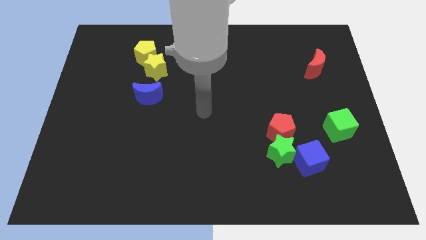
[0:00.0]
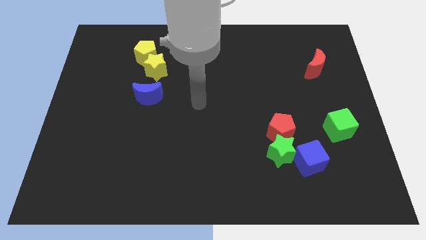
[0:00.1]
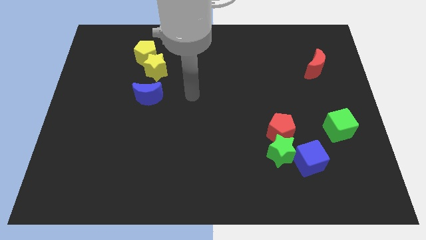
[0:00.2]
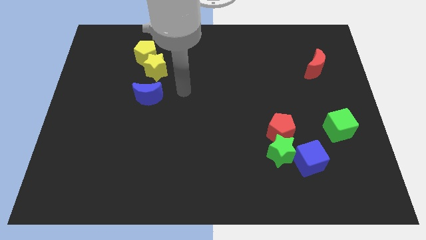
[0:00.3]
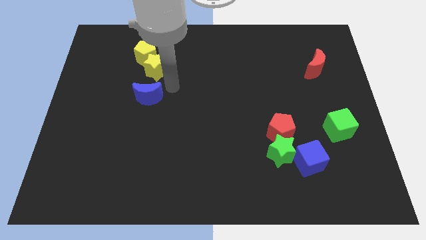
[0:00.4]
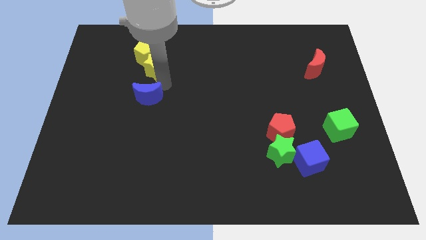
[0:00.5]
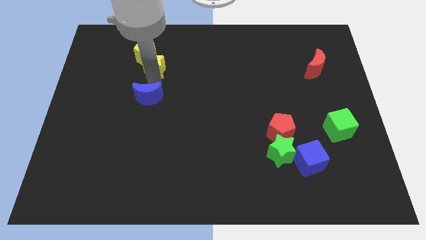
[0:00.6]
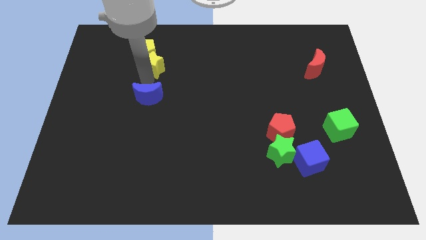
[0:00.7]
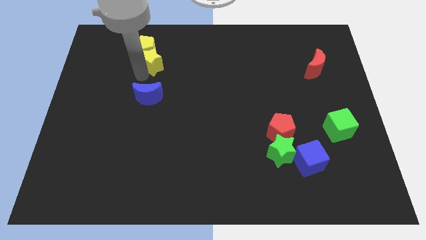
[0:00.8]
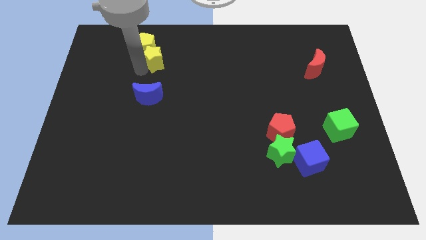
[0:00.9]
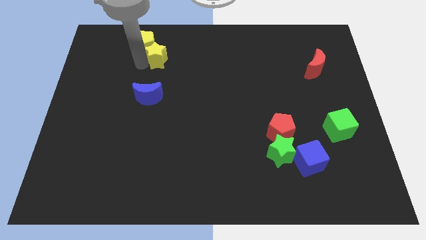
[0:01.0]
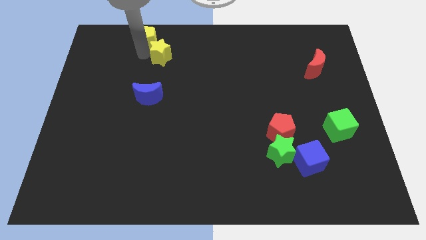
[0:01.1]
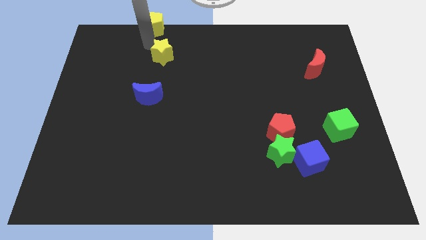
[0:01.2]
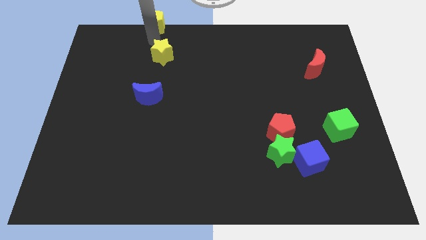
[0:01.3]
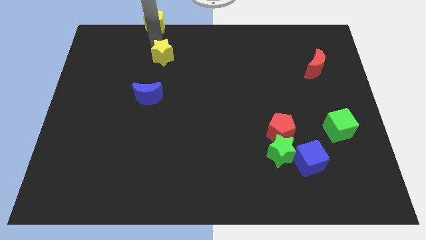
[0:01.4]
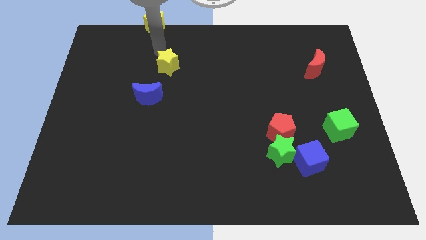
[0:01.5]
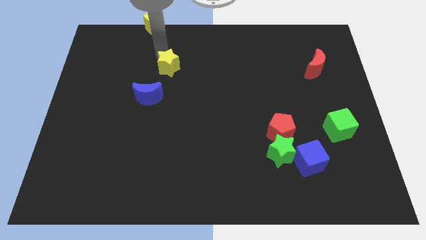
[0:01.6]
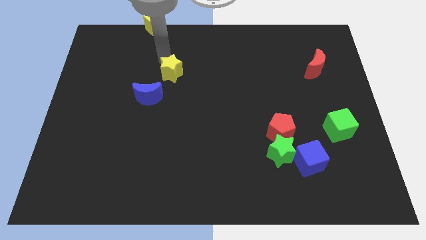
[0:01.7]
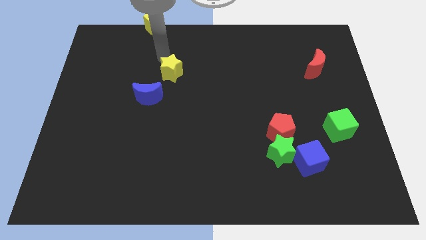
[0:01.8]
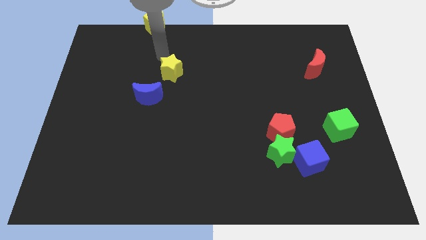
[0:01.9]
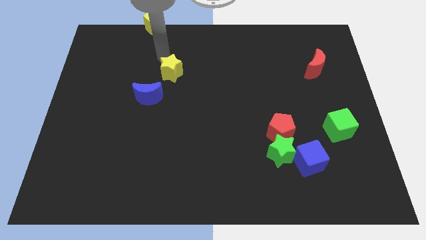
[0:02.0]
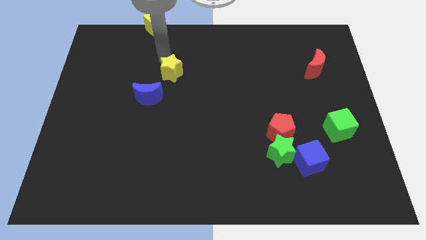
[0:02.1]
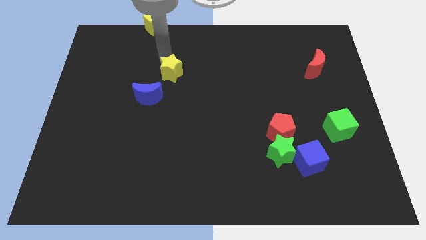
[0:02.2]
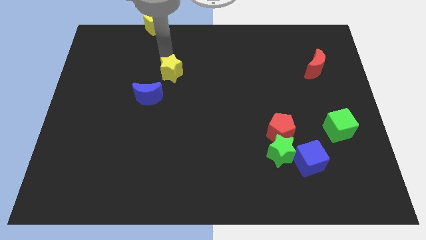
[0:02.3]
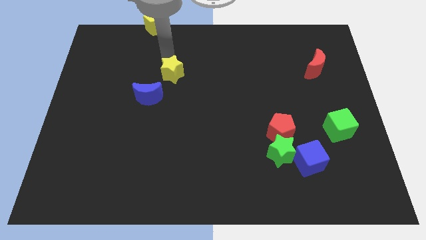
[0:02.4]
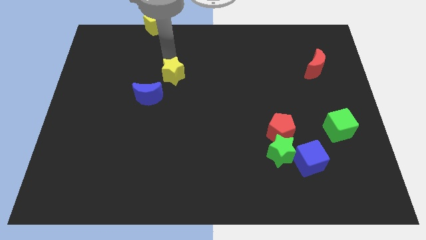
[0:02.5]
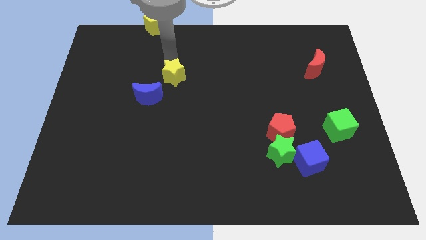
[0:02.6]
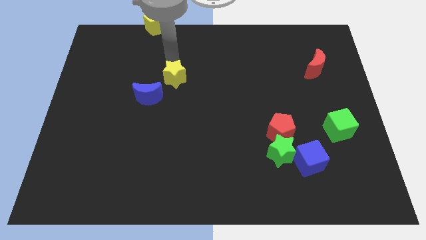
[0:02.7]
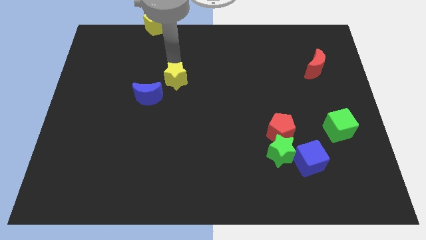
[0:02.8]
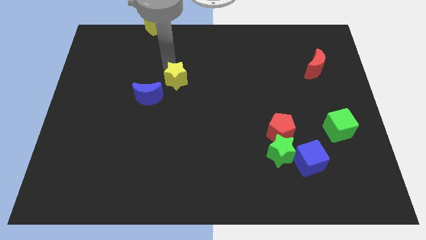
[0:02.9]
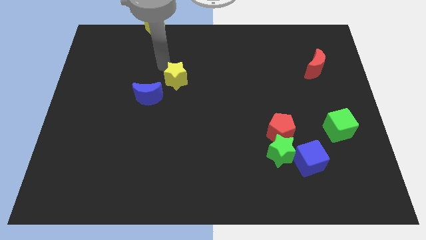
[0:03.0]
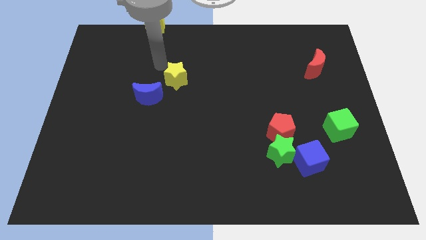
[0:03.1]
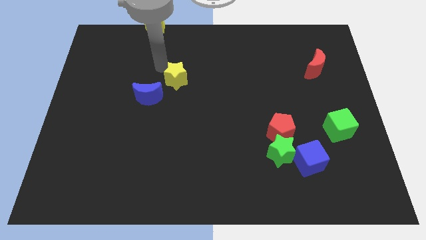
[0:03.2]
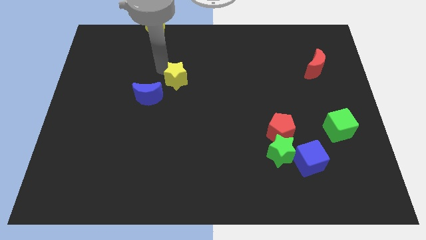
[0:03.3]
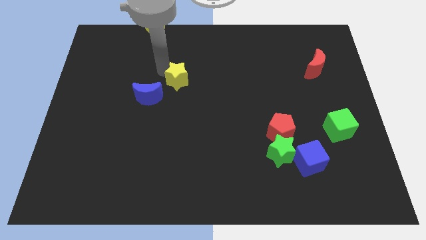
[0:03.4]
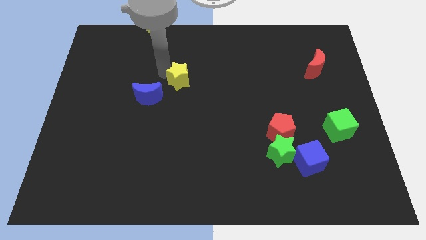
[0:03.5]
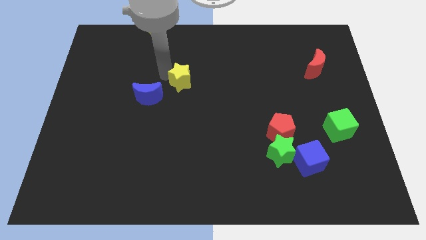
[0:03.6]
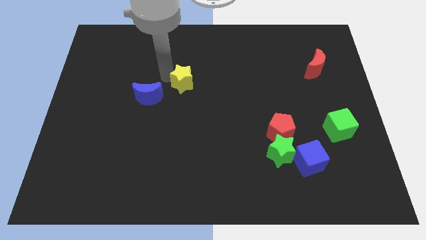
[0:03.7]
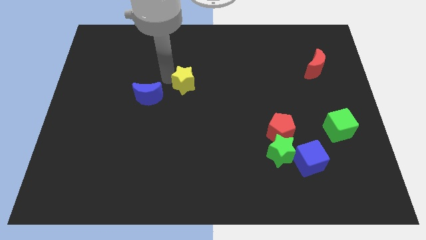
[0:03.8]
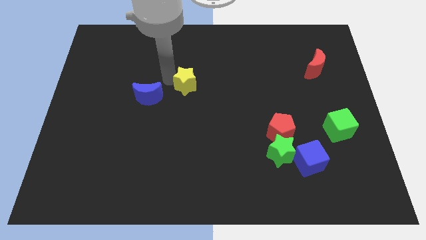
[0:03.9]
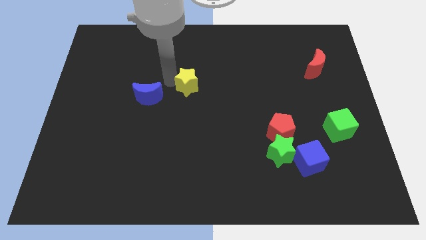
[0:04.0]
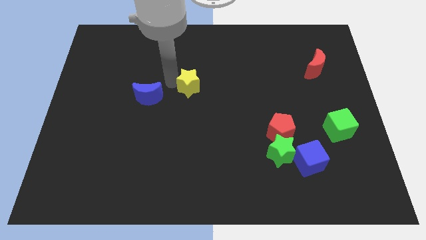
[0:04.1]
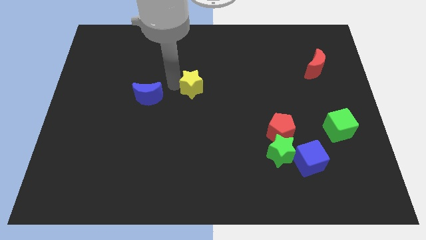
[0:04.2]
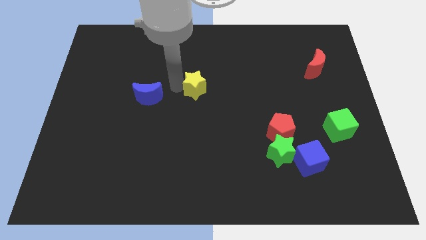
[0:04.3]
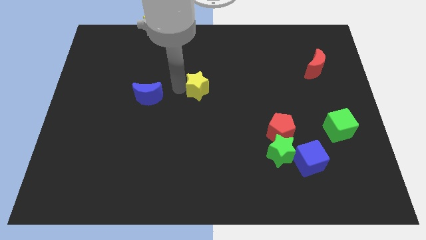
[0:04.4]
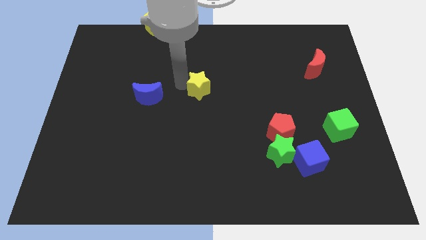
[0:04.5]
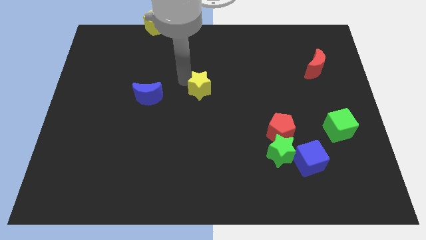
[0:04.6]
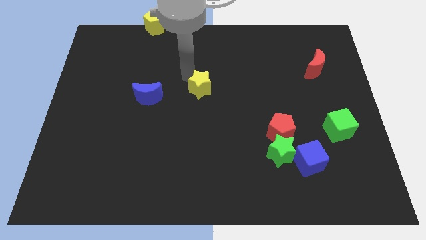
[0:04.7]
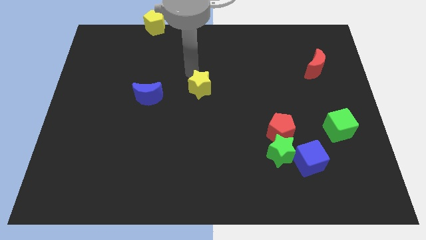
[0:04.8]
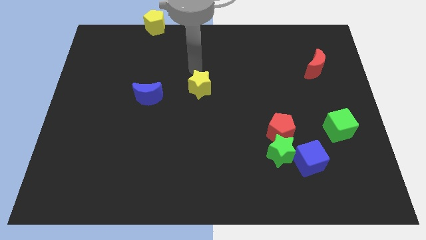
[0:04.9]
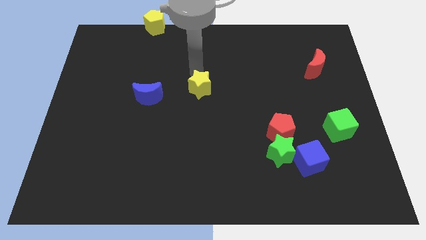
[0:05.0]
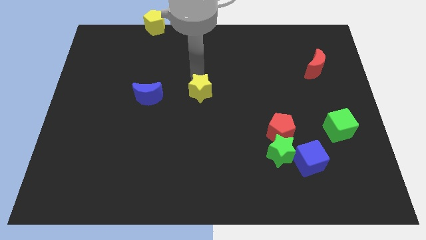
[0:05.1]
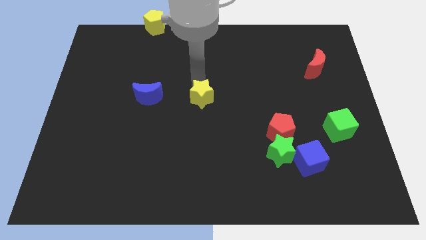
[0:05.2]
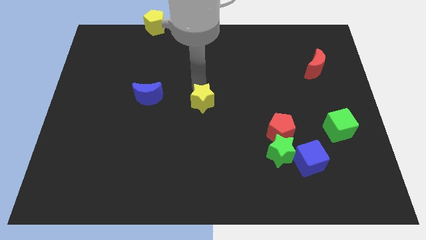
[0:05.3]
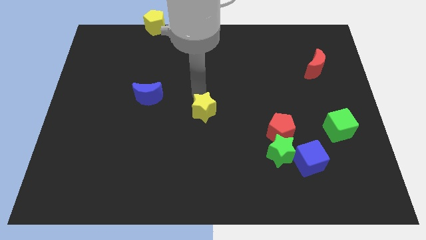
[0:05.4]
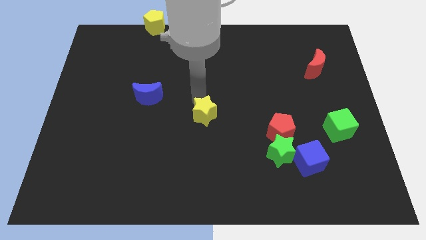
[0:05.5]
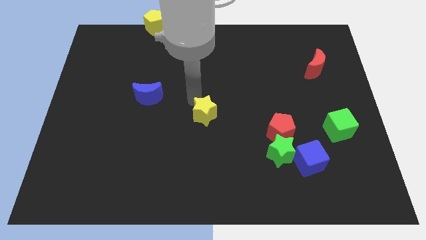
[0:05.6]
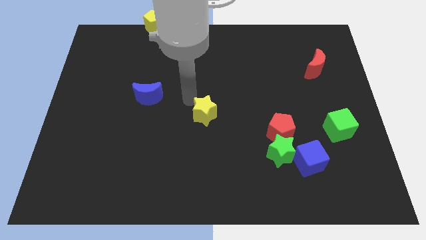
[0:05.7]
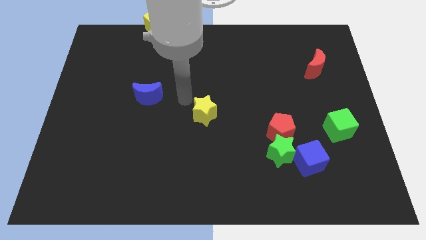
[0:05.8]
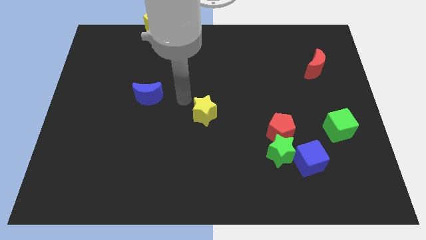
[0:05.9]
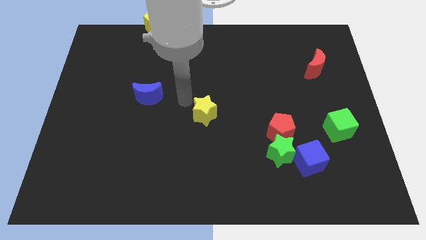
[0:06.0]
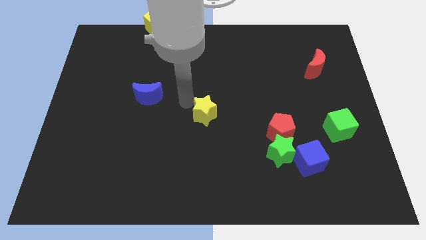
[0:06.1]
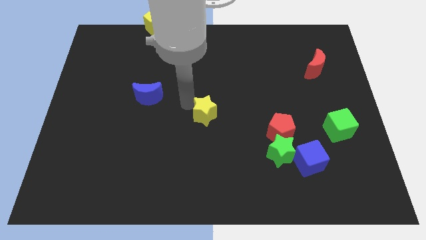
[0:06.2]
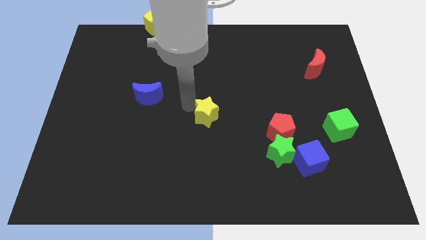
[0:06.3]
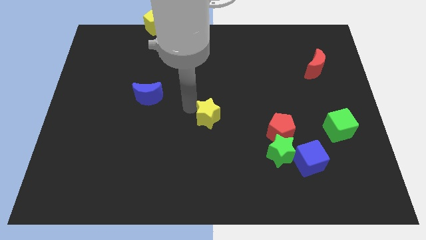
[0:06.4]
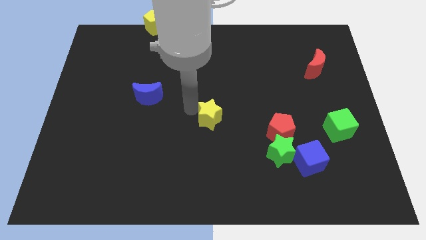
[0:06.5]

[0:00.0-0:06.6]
push the yellow star downwards and then to the right

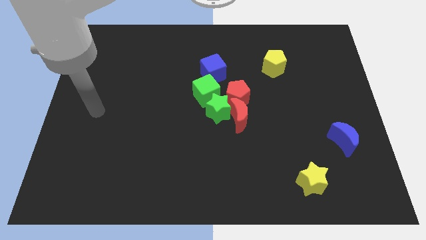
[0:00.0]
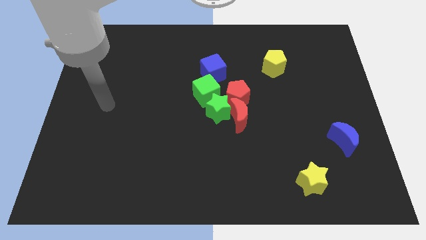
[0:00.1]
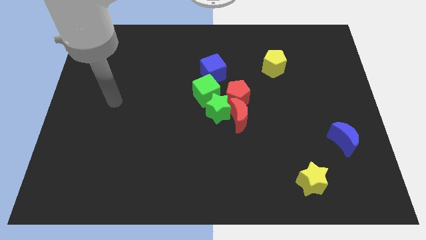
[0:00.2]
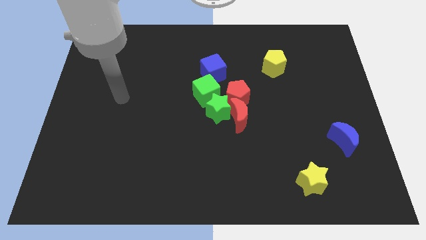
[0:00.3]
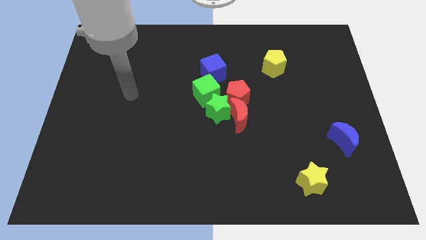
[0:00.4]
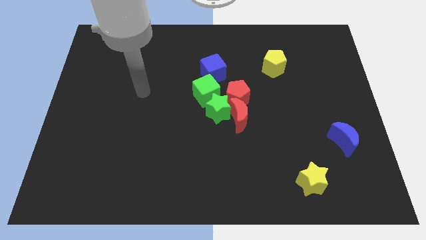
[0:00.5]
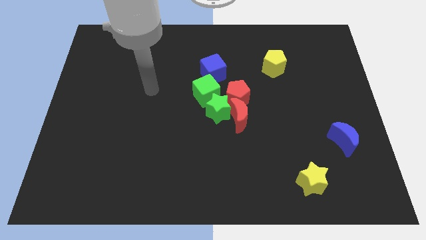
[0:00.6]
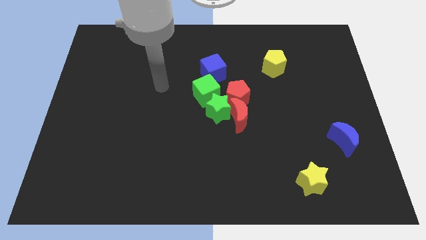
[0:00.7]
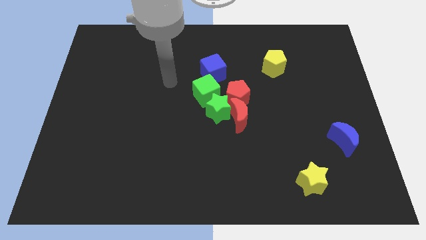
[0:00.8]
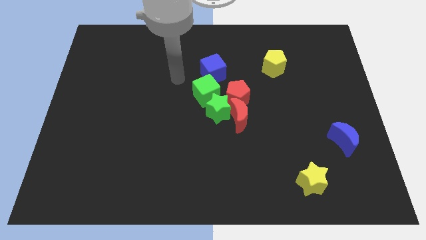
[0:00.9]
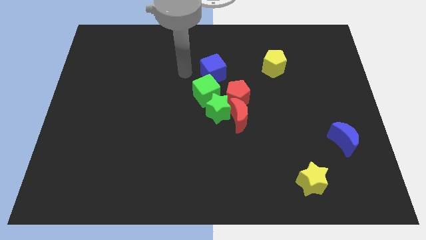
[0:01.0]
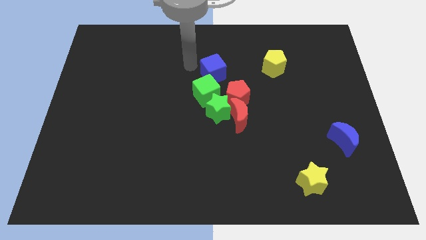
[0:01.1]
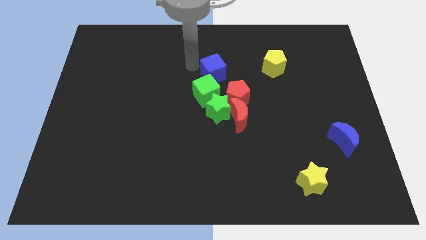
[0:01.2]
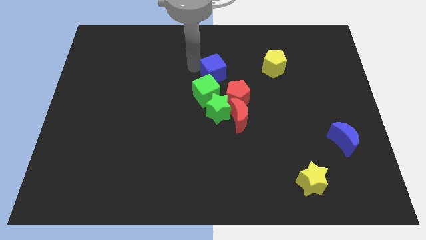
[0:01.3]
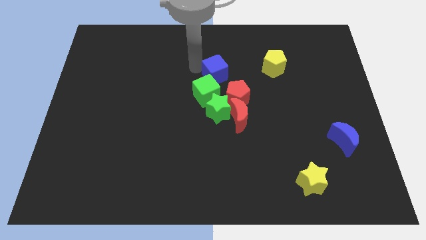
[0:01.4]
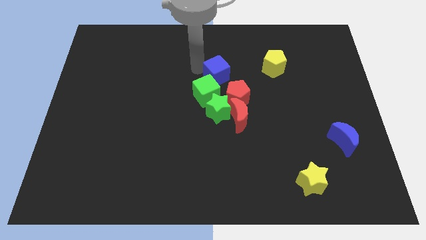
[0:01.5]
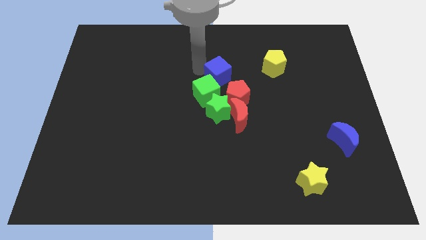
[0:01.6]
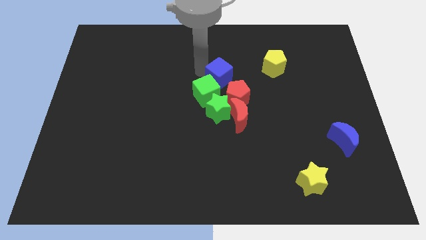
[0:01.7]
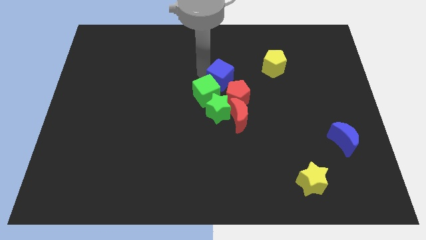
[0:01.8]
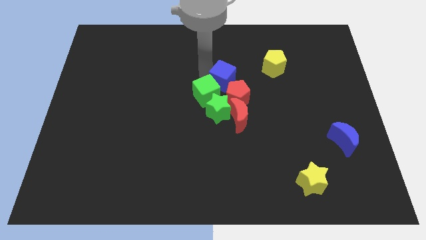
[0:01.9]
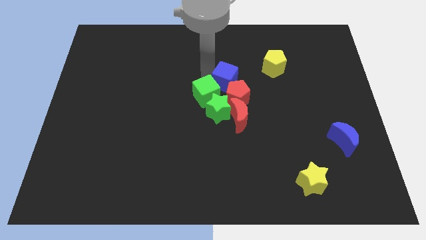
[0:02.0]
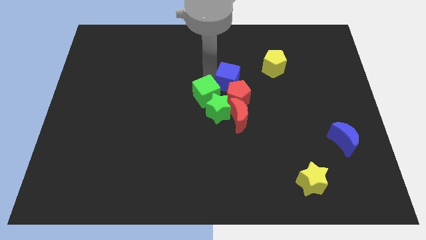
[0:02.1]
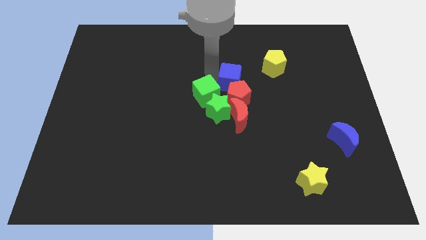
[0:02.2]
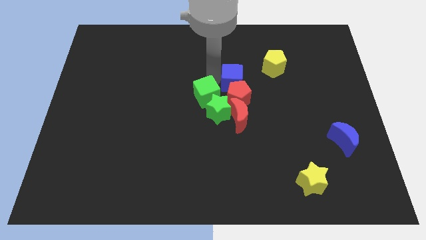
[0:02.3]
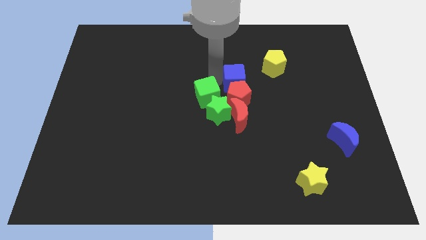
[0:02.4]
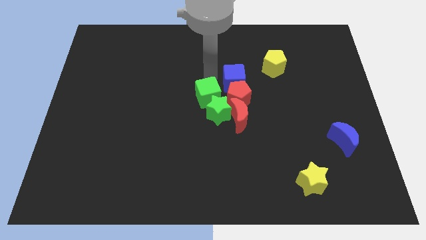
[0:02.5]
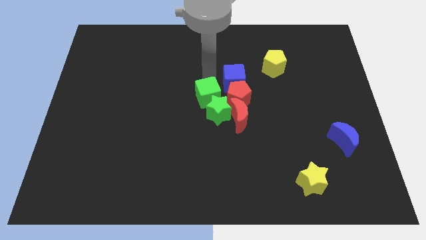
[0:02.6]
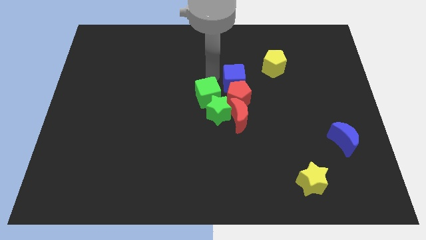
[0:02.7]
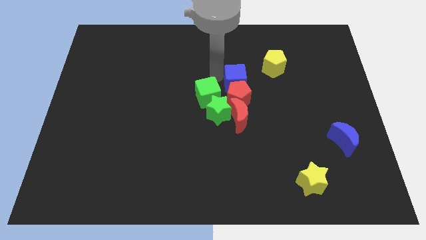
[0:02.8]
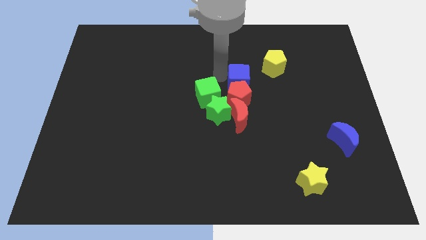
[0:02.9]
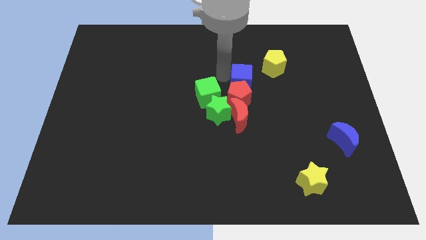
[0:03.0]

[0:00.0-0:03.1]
push the blue cube downwards and then to the right somewhat
